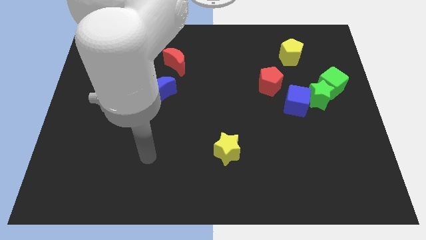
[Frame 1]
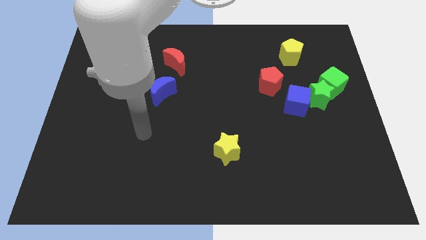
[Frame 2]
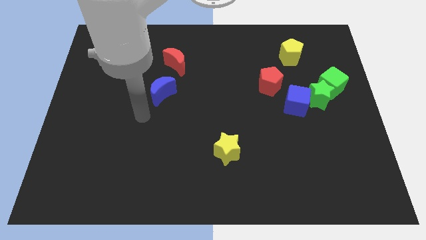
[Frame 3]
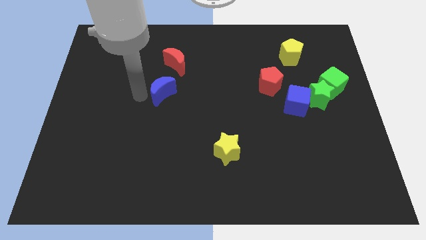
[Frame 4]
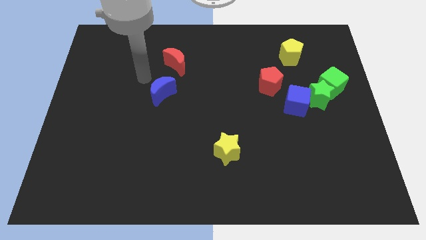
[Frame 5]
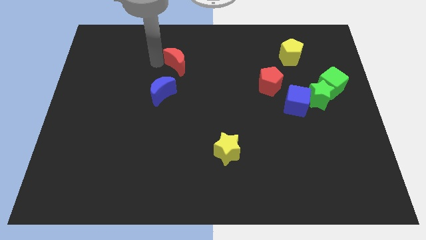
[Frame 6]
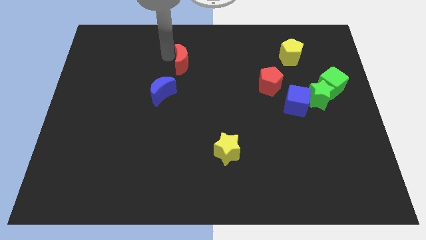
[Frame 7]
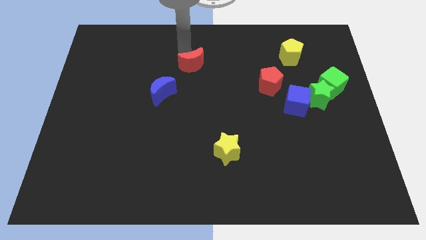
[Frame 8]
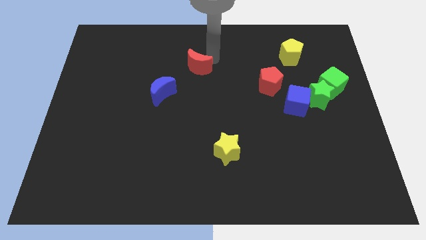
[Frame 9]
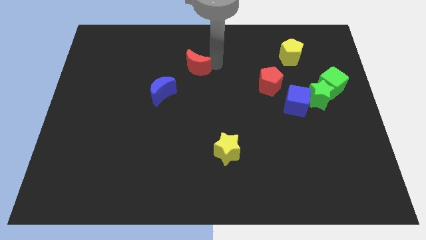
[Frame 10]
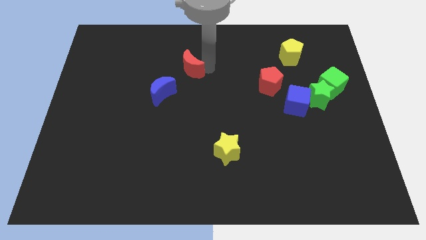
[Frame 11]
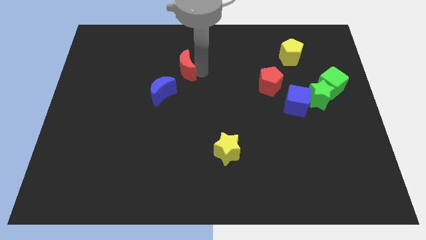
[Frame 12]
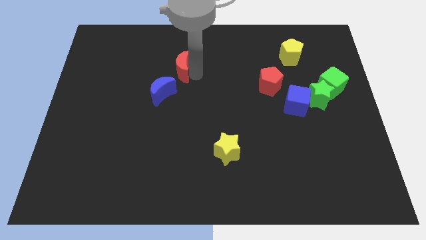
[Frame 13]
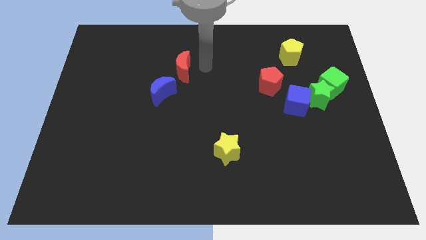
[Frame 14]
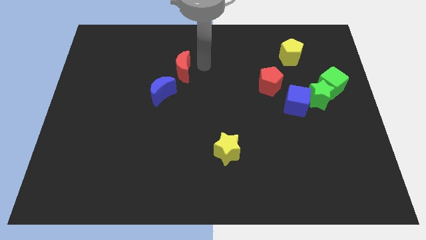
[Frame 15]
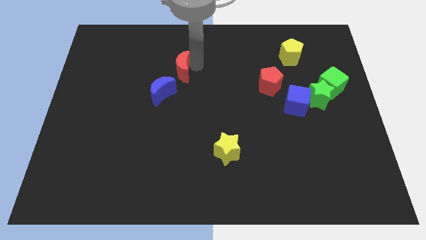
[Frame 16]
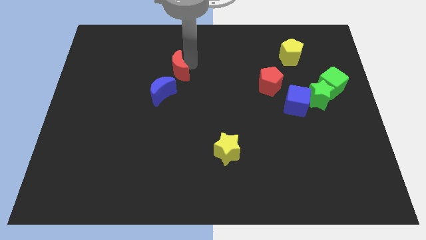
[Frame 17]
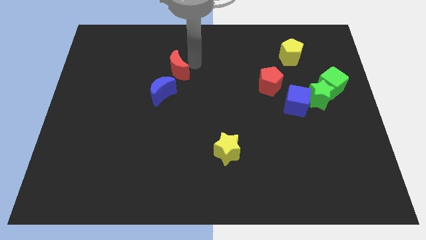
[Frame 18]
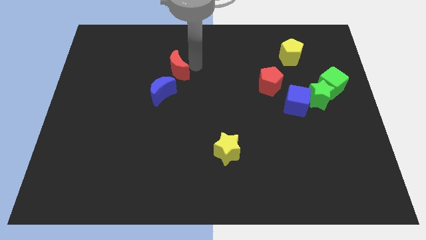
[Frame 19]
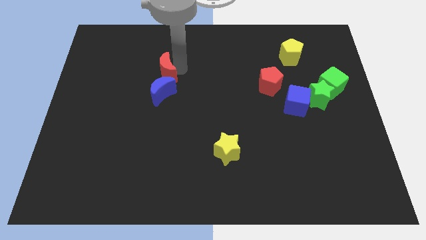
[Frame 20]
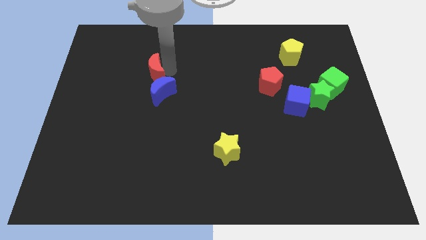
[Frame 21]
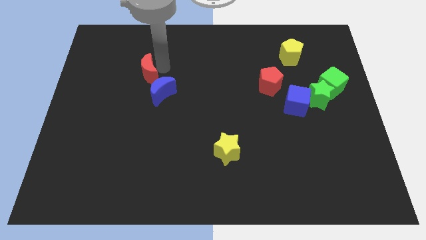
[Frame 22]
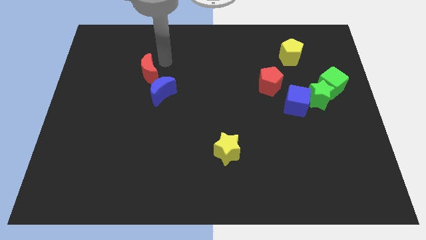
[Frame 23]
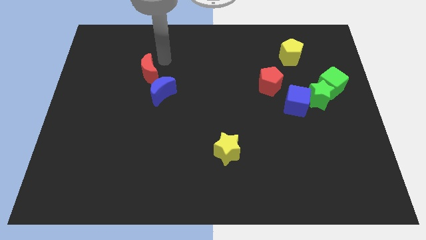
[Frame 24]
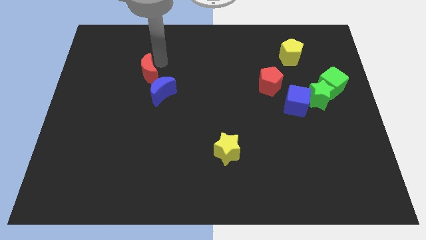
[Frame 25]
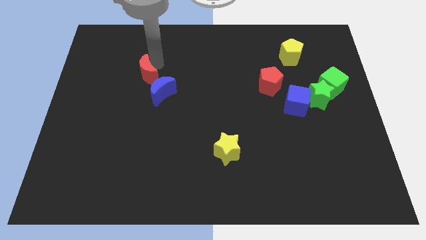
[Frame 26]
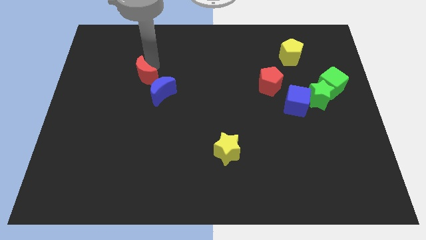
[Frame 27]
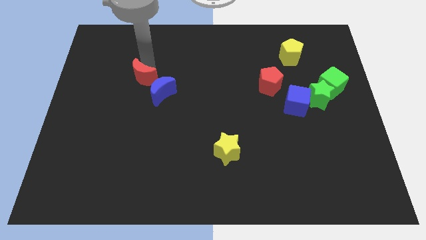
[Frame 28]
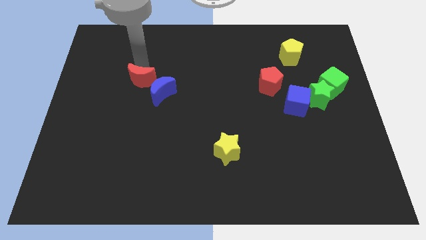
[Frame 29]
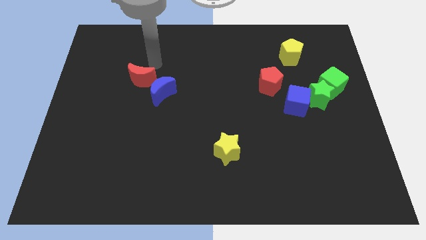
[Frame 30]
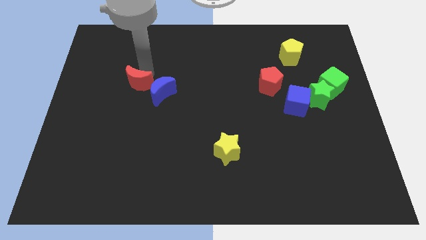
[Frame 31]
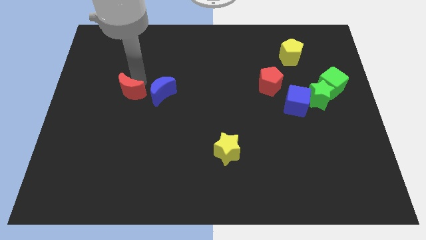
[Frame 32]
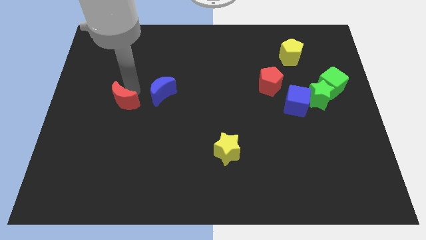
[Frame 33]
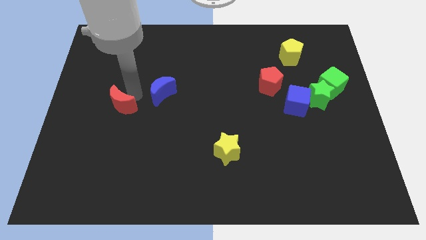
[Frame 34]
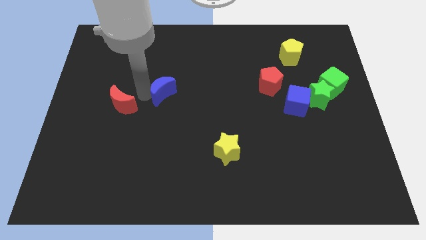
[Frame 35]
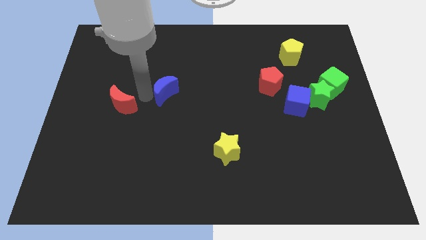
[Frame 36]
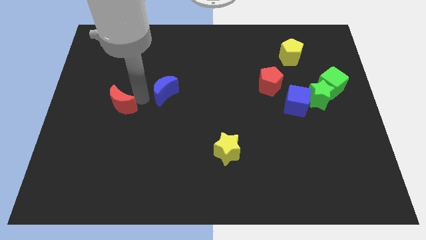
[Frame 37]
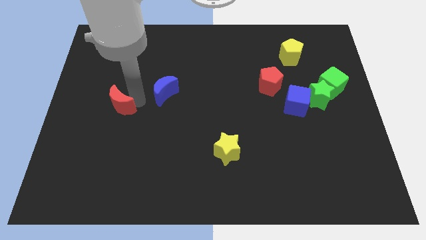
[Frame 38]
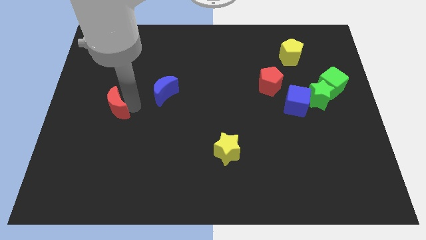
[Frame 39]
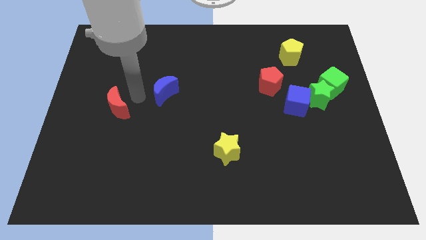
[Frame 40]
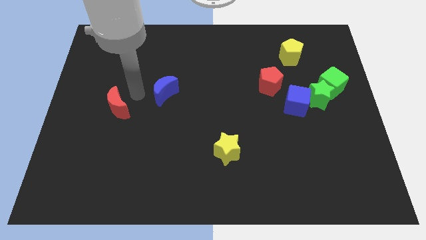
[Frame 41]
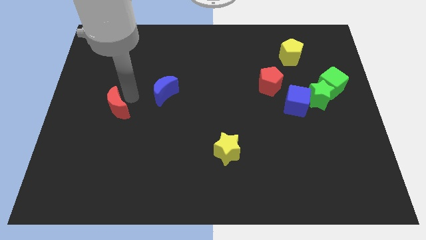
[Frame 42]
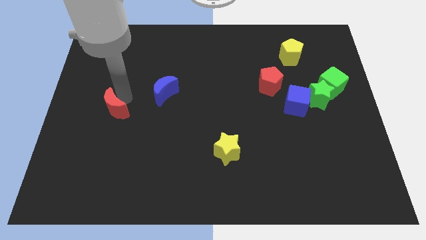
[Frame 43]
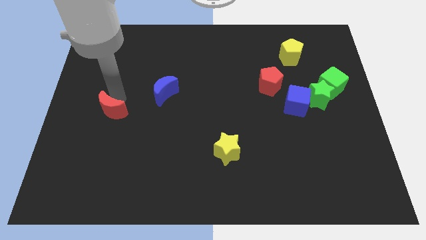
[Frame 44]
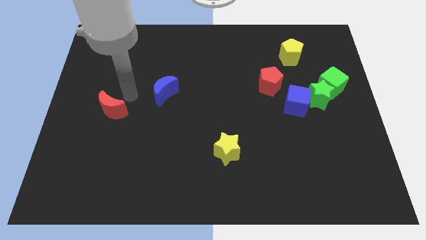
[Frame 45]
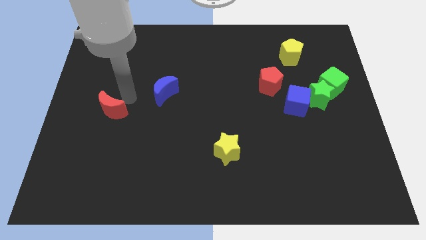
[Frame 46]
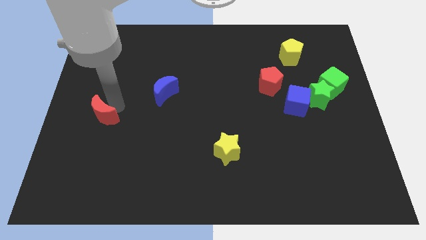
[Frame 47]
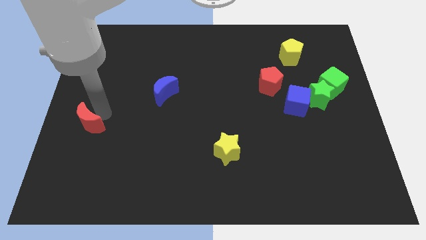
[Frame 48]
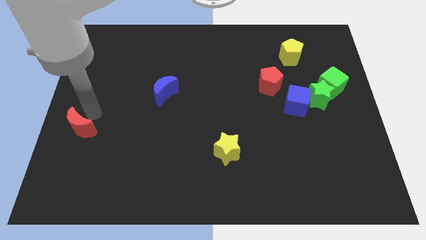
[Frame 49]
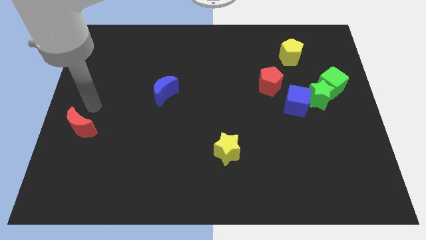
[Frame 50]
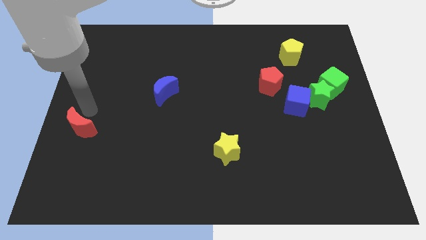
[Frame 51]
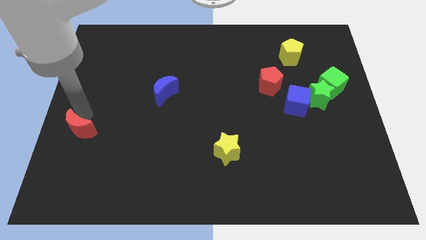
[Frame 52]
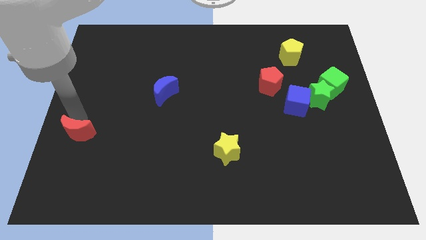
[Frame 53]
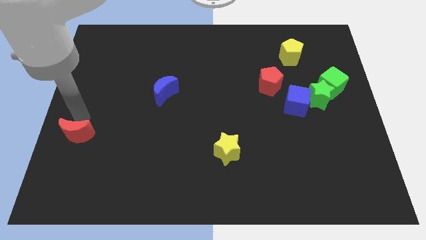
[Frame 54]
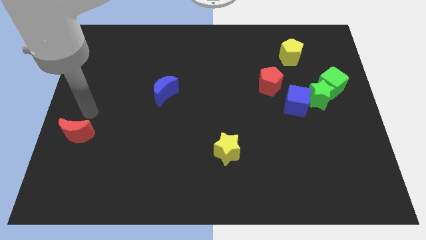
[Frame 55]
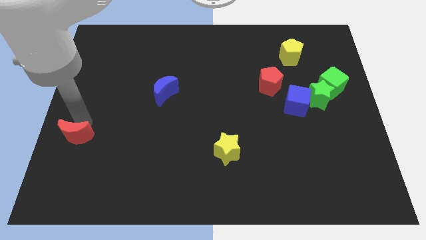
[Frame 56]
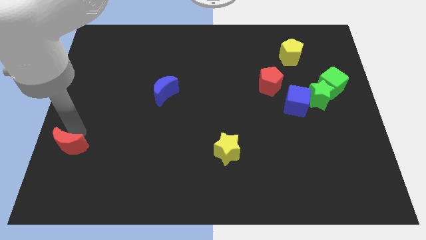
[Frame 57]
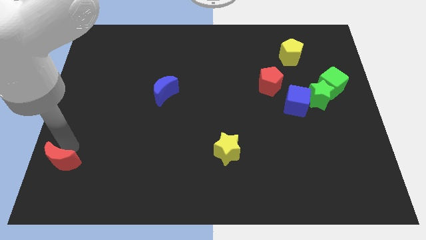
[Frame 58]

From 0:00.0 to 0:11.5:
move the red moon to the bottom left corner

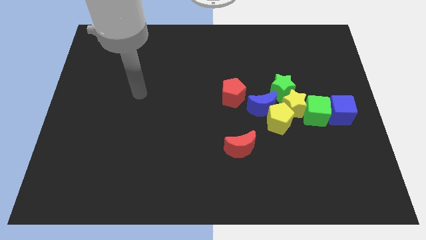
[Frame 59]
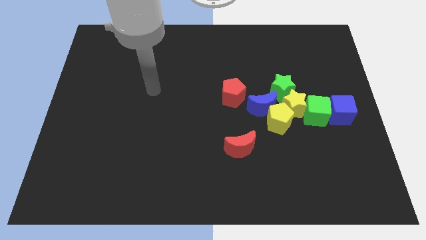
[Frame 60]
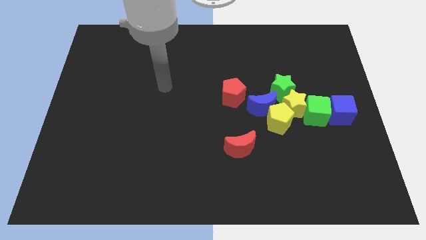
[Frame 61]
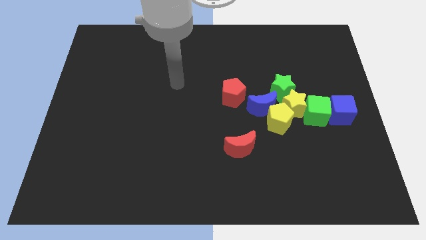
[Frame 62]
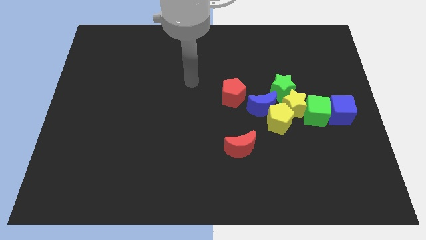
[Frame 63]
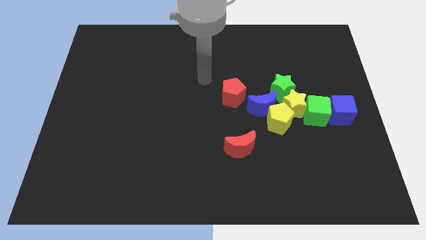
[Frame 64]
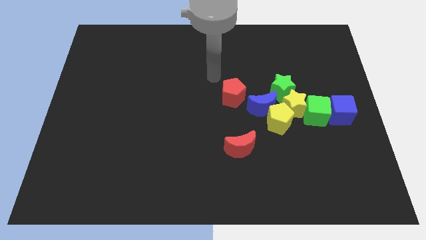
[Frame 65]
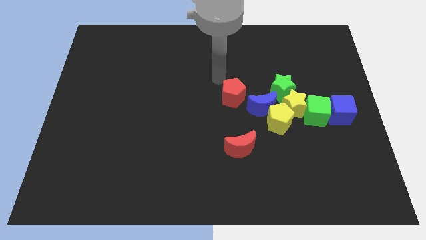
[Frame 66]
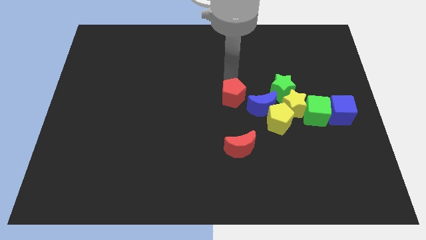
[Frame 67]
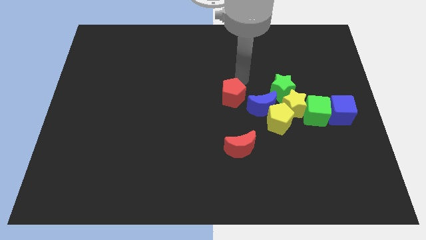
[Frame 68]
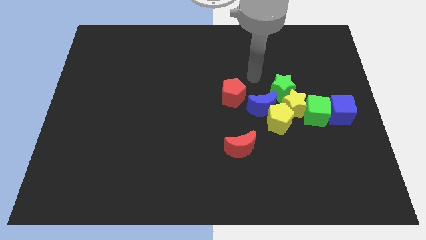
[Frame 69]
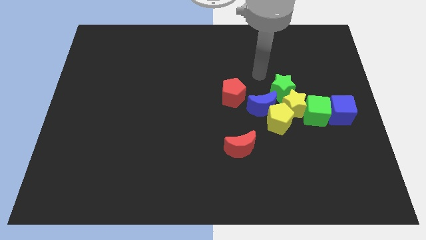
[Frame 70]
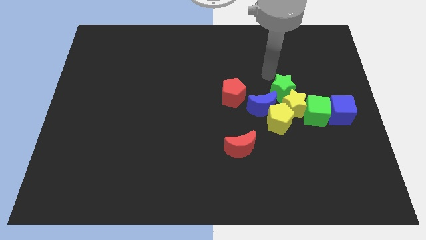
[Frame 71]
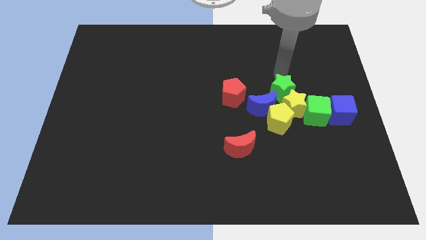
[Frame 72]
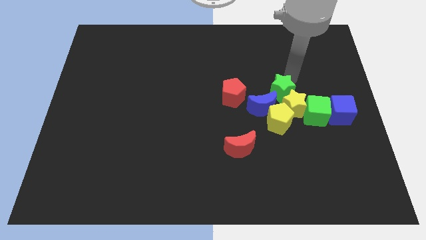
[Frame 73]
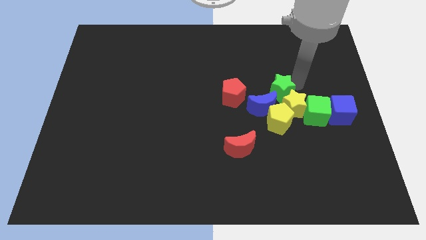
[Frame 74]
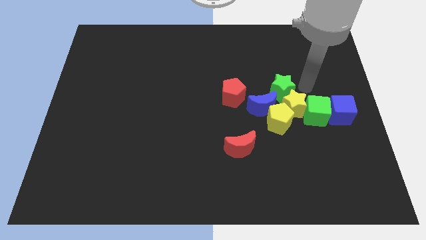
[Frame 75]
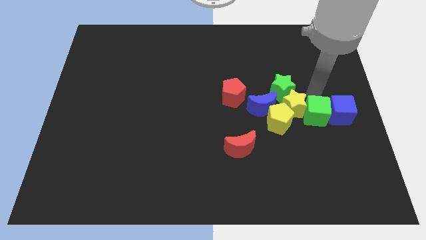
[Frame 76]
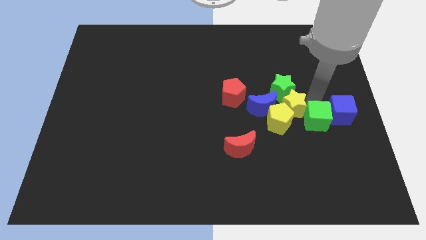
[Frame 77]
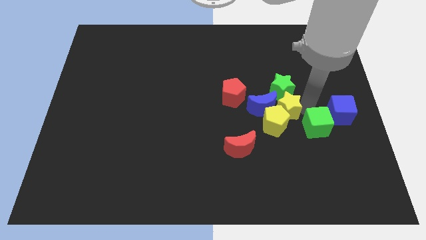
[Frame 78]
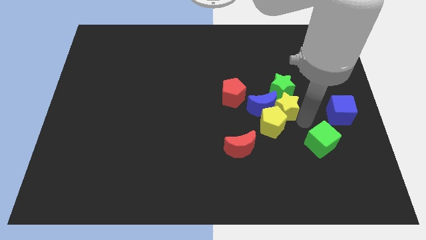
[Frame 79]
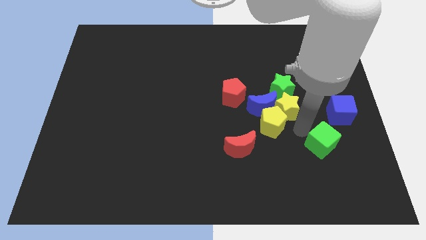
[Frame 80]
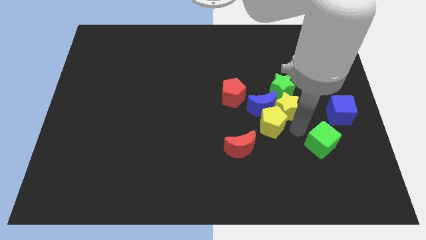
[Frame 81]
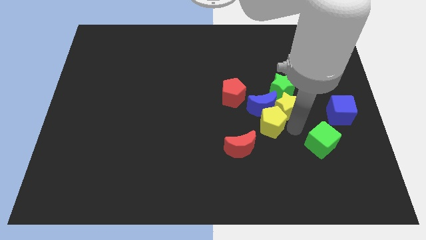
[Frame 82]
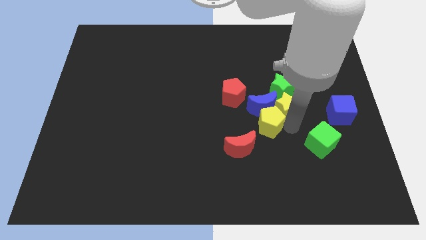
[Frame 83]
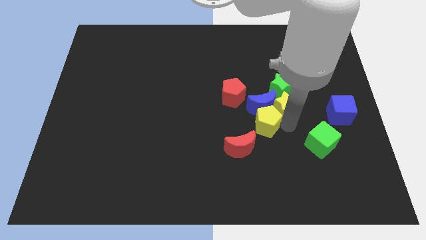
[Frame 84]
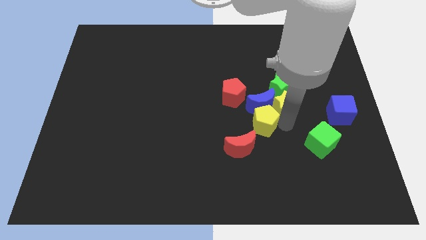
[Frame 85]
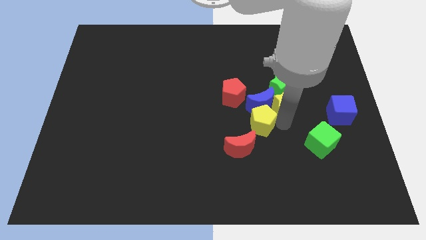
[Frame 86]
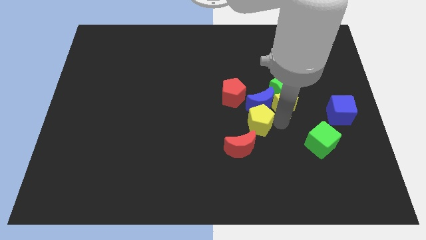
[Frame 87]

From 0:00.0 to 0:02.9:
slide the yellow pentagon to the center of the board
